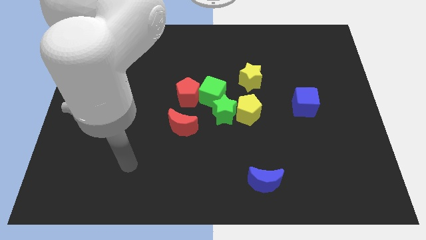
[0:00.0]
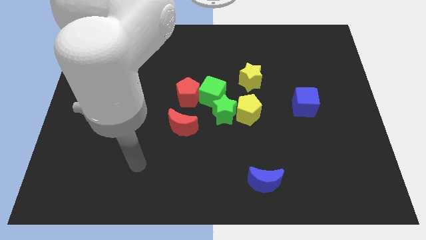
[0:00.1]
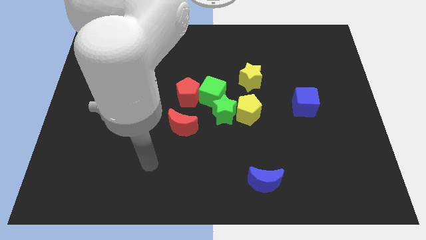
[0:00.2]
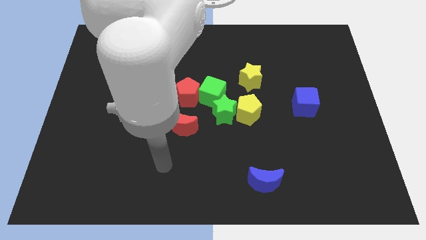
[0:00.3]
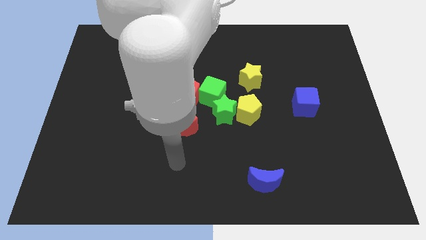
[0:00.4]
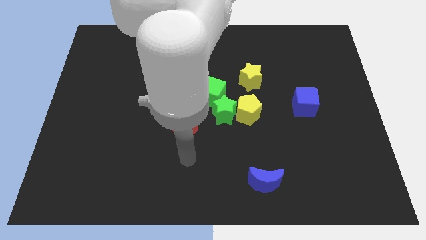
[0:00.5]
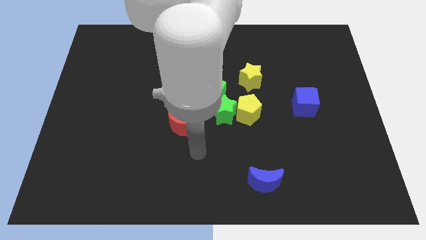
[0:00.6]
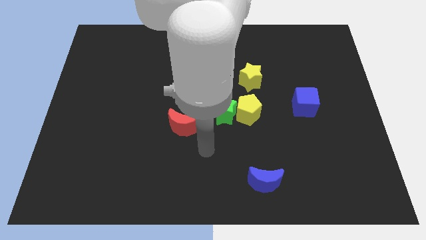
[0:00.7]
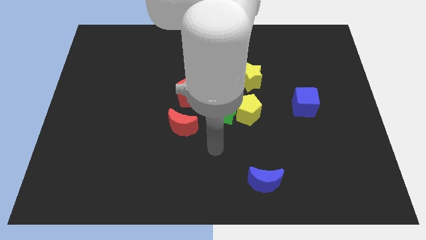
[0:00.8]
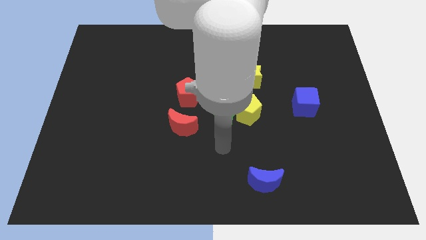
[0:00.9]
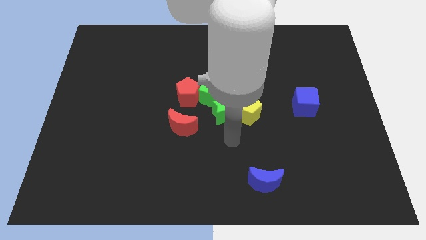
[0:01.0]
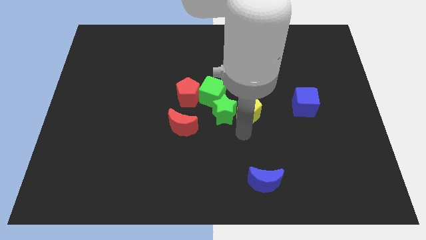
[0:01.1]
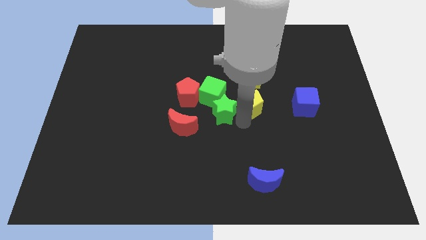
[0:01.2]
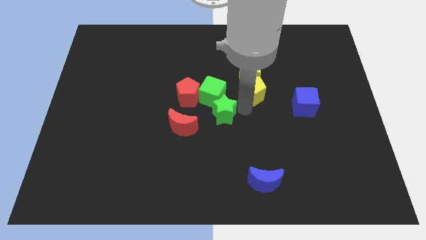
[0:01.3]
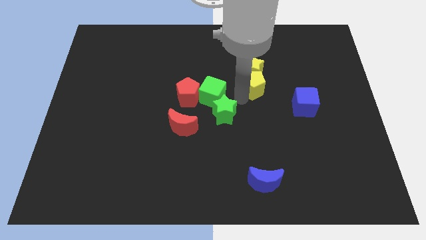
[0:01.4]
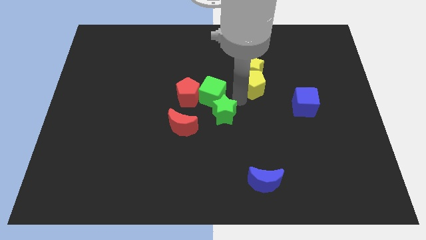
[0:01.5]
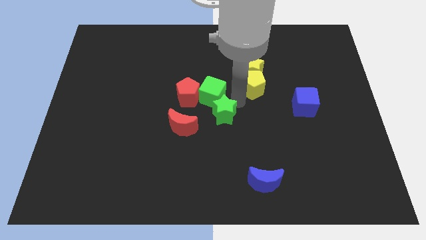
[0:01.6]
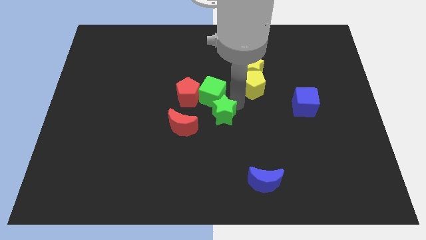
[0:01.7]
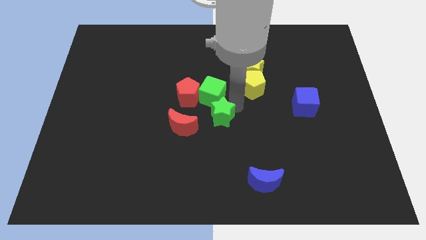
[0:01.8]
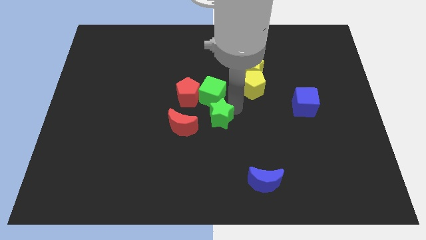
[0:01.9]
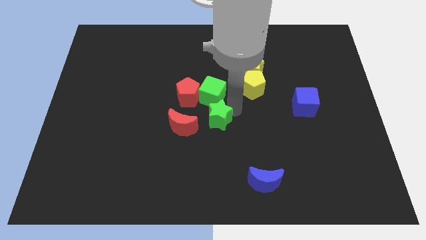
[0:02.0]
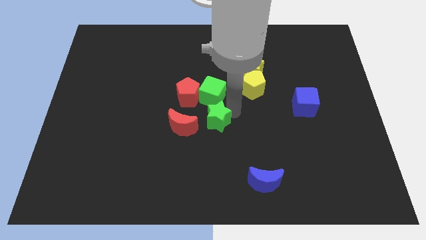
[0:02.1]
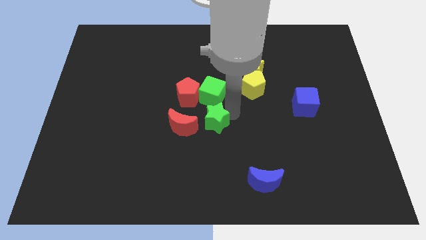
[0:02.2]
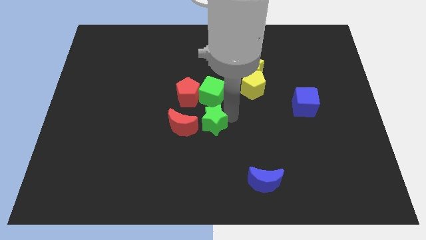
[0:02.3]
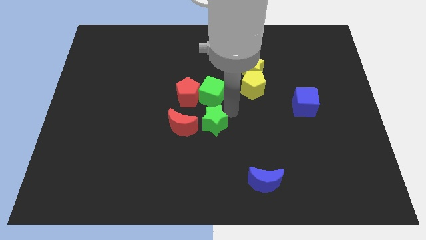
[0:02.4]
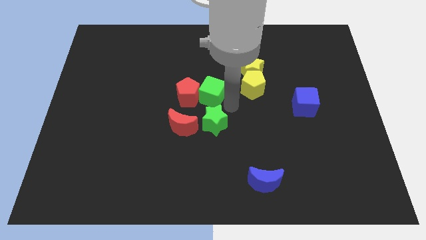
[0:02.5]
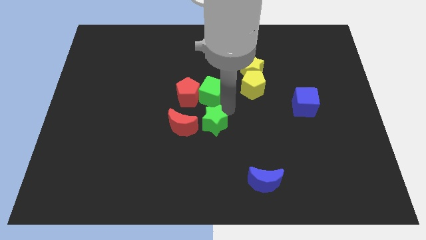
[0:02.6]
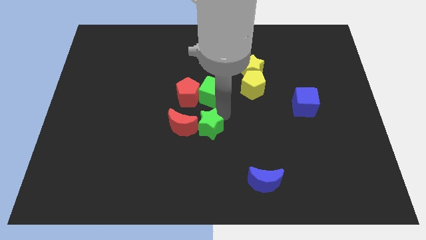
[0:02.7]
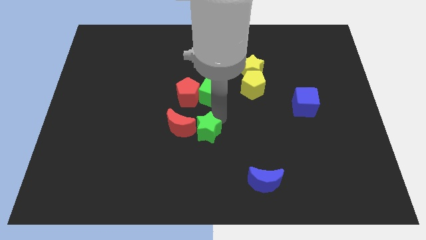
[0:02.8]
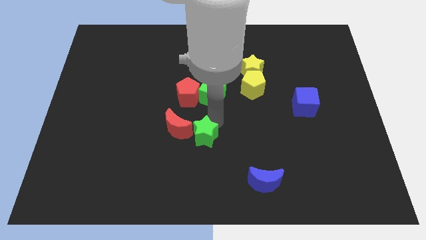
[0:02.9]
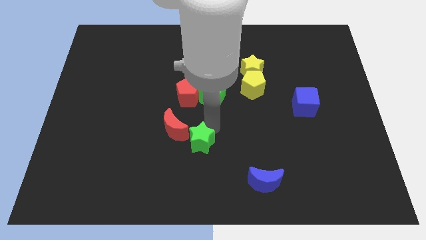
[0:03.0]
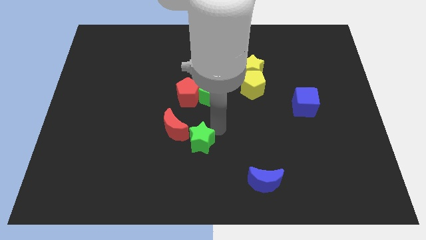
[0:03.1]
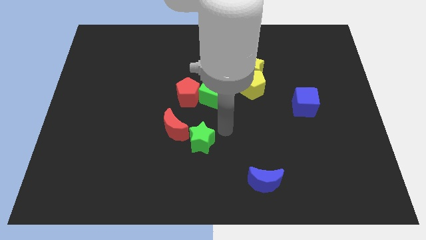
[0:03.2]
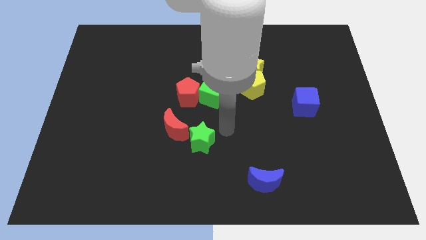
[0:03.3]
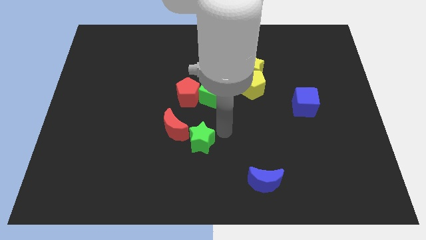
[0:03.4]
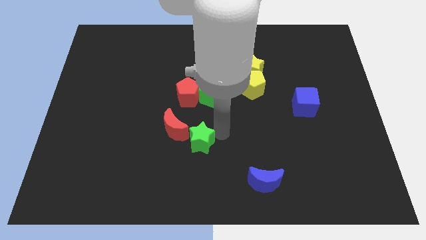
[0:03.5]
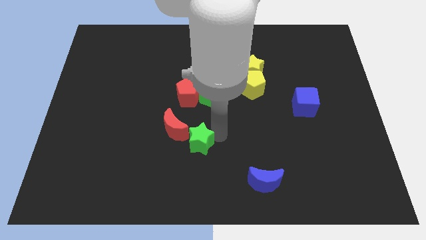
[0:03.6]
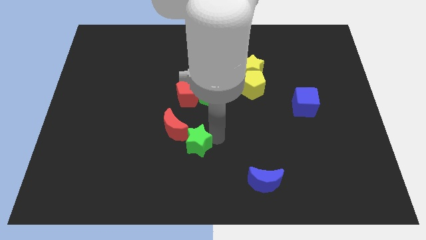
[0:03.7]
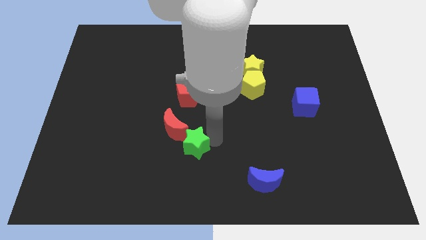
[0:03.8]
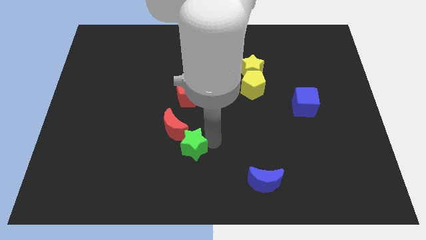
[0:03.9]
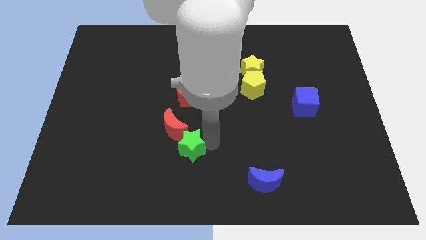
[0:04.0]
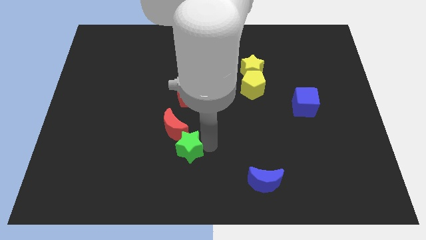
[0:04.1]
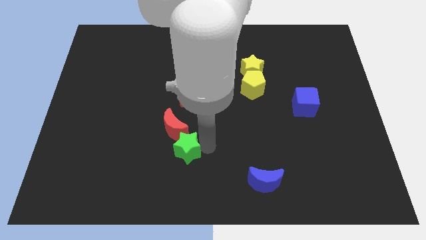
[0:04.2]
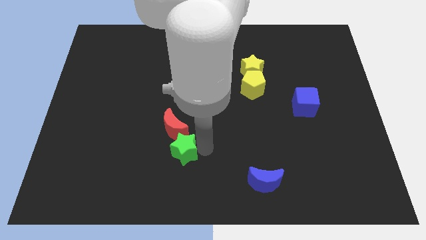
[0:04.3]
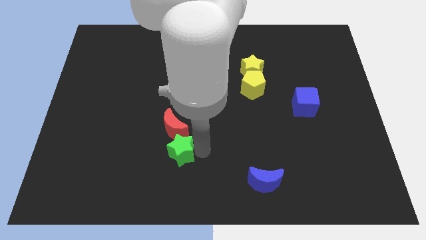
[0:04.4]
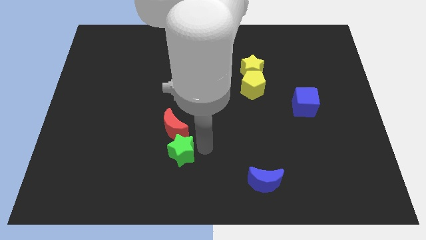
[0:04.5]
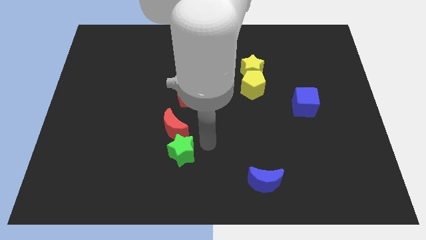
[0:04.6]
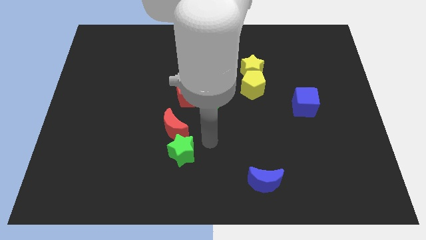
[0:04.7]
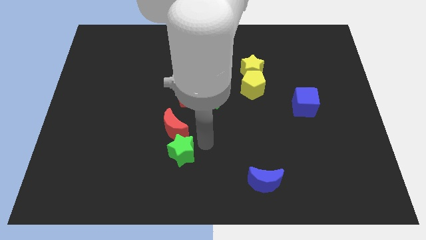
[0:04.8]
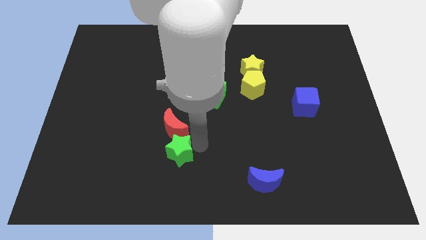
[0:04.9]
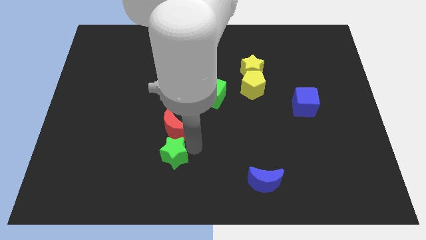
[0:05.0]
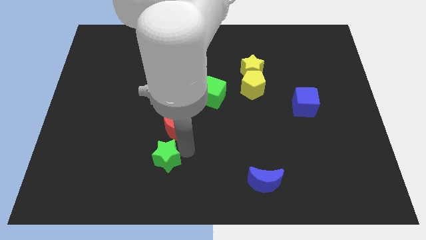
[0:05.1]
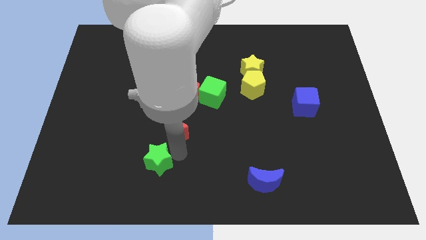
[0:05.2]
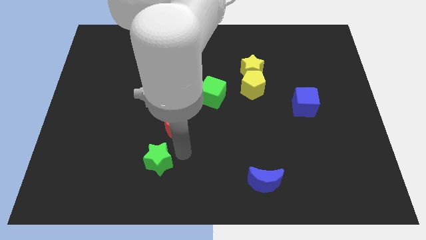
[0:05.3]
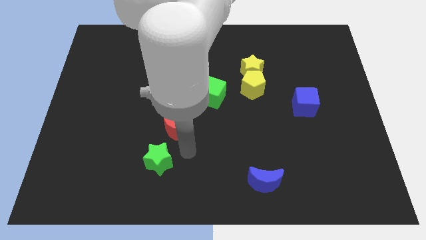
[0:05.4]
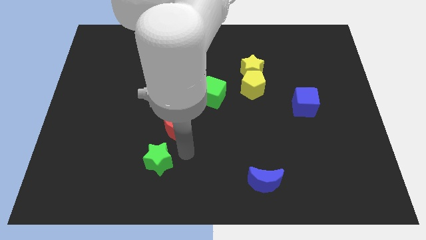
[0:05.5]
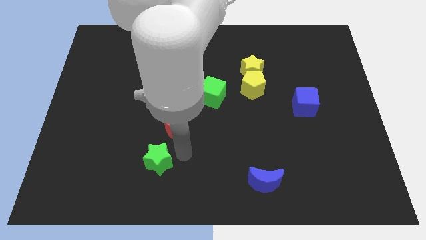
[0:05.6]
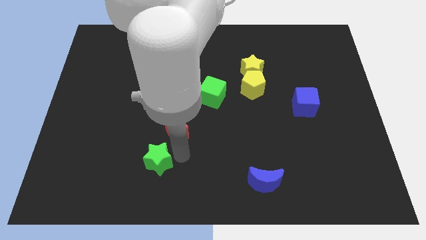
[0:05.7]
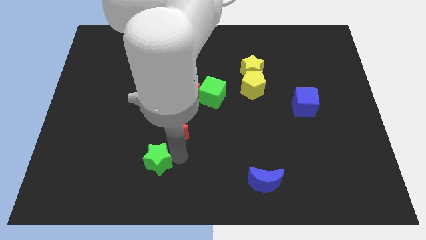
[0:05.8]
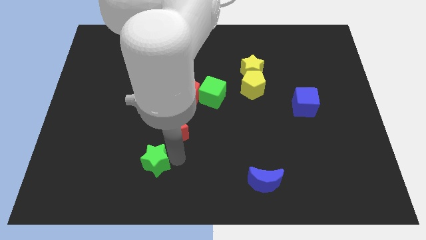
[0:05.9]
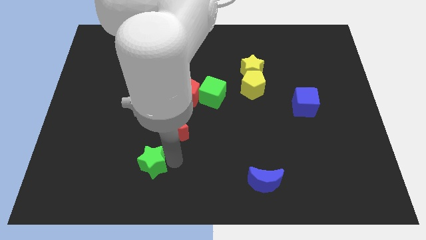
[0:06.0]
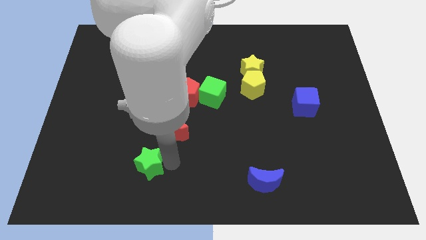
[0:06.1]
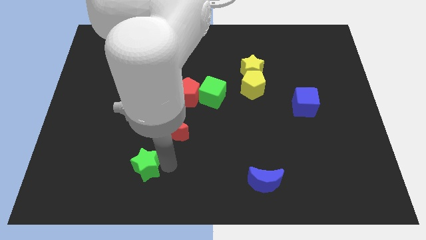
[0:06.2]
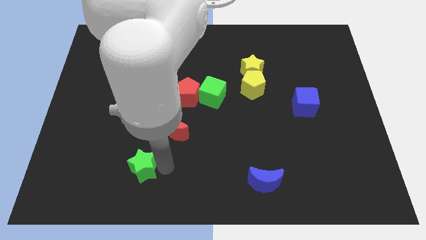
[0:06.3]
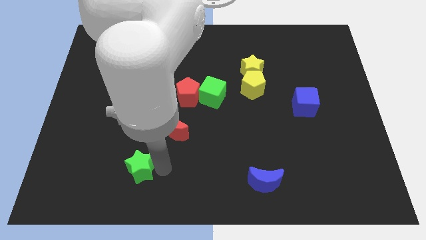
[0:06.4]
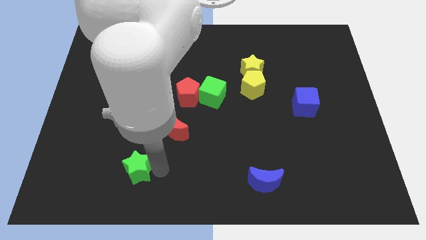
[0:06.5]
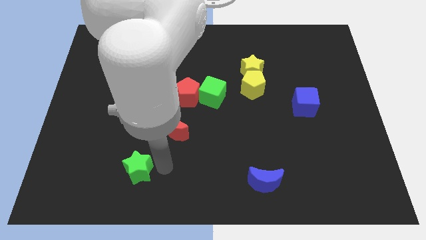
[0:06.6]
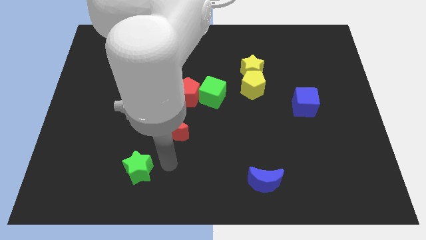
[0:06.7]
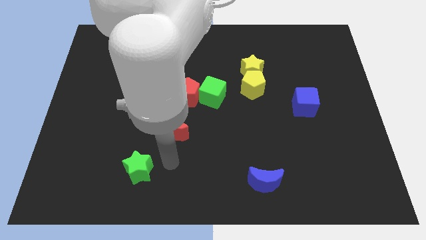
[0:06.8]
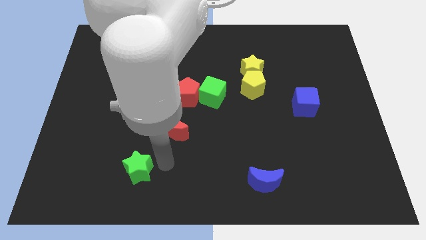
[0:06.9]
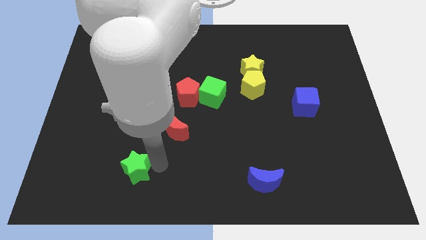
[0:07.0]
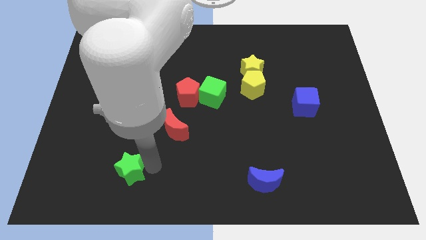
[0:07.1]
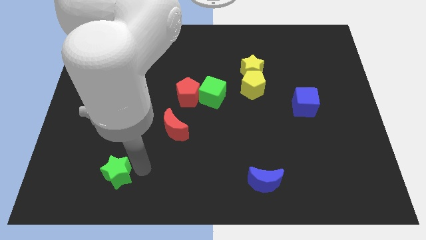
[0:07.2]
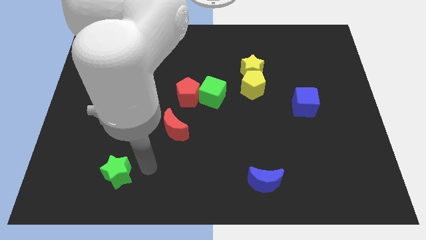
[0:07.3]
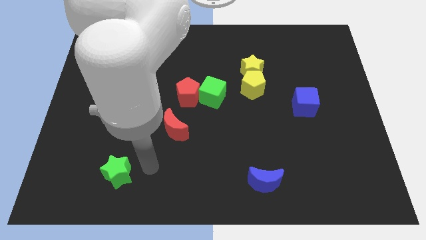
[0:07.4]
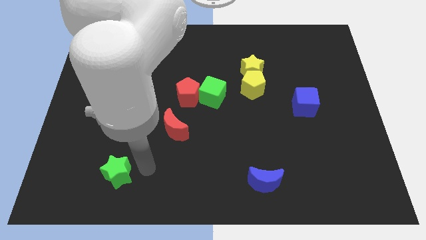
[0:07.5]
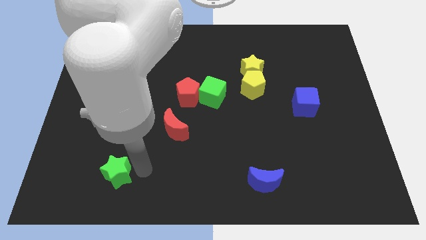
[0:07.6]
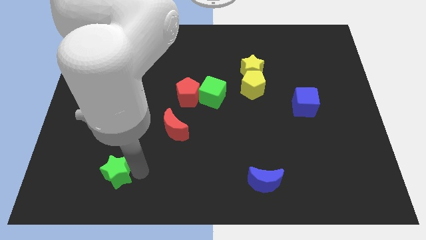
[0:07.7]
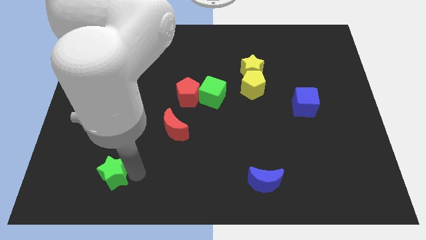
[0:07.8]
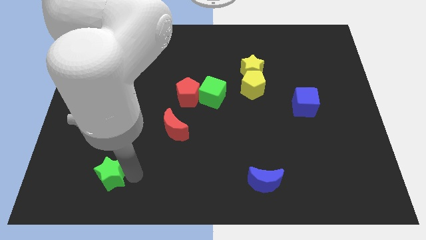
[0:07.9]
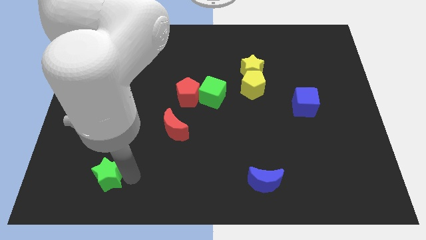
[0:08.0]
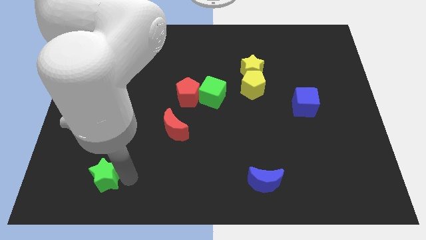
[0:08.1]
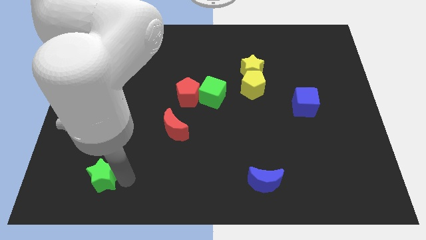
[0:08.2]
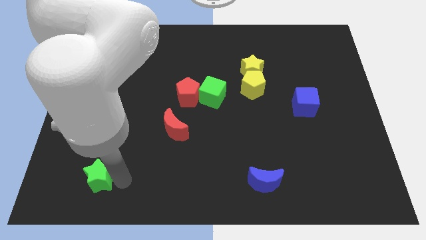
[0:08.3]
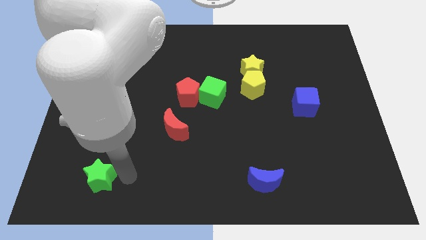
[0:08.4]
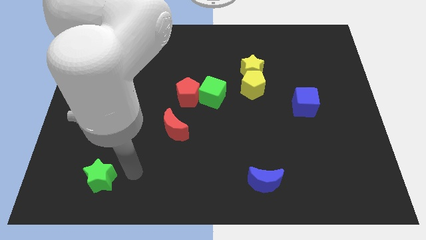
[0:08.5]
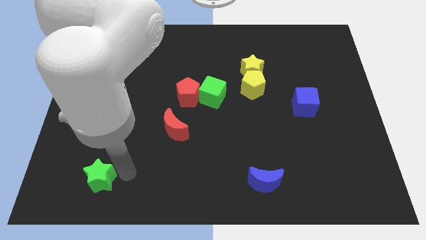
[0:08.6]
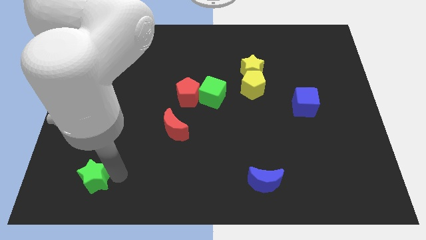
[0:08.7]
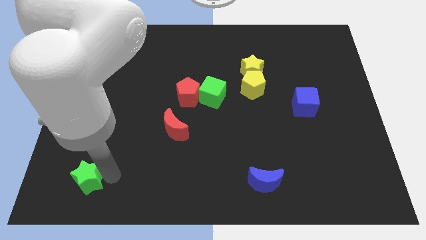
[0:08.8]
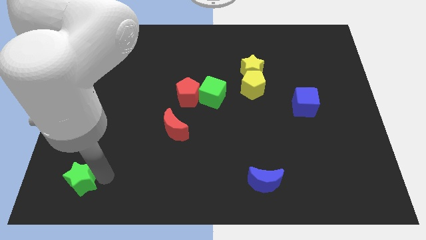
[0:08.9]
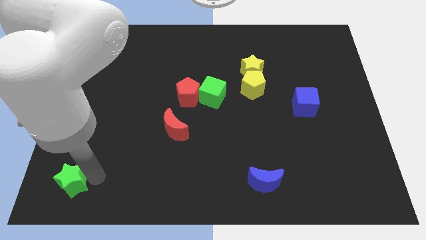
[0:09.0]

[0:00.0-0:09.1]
put the green star to the bottom left
